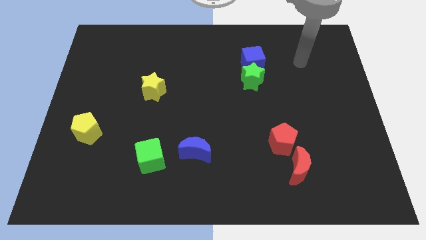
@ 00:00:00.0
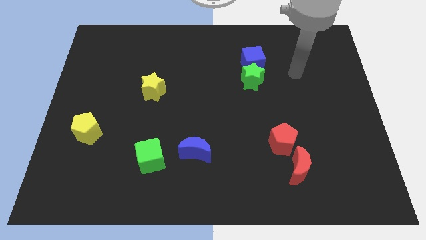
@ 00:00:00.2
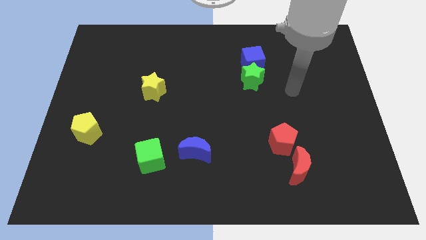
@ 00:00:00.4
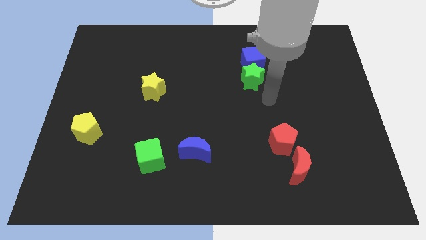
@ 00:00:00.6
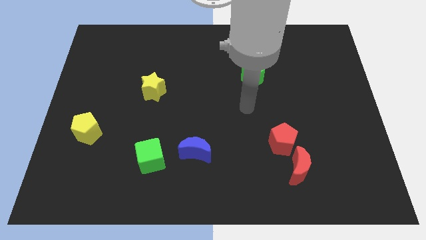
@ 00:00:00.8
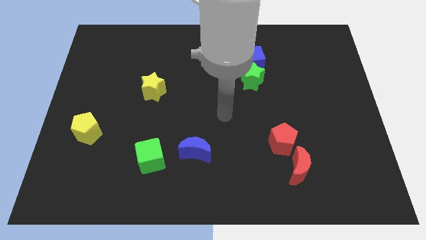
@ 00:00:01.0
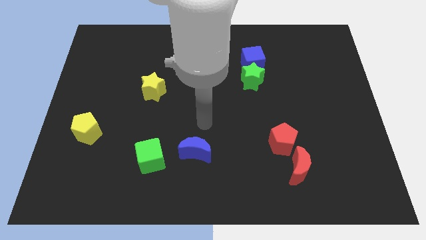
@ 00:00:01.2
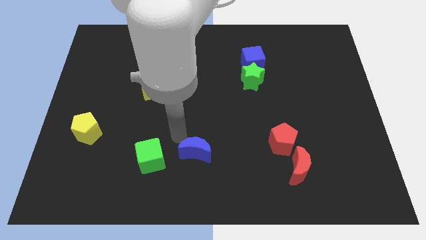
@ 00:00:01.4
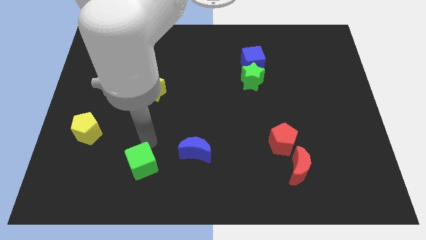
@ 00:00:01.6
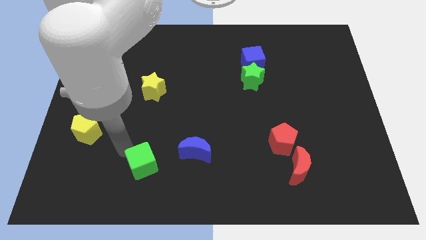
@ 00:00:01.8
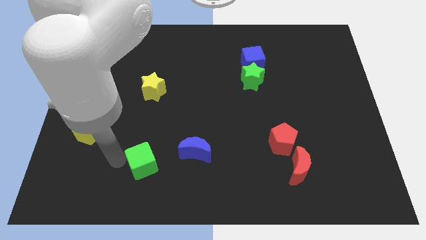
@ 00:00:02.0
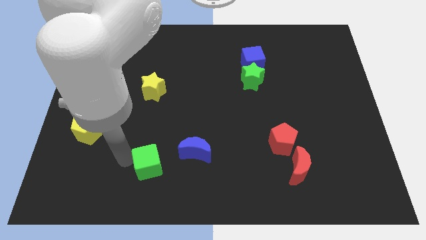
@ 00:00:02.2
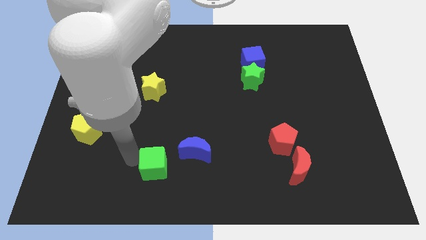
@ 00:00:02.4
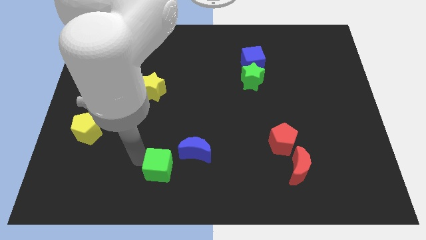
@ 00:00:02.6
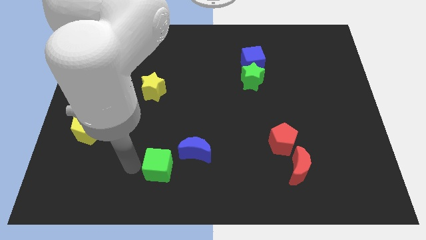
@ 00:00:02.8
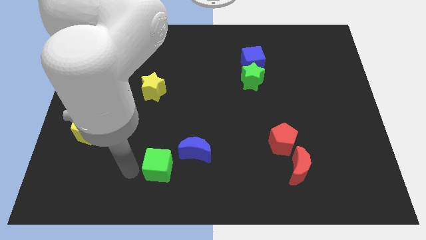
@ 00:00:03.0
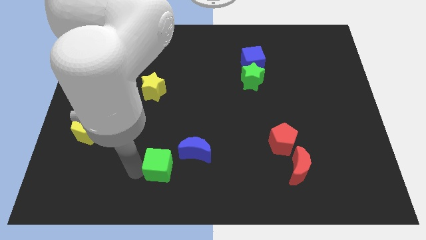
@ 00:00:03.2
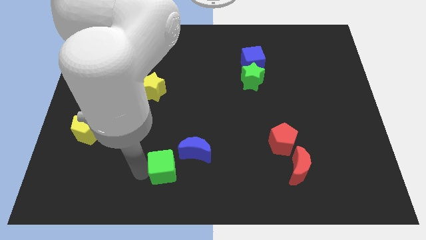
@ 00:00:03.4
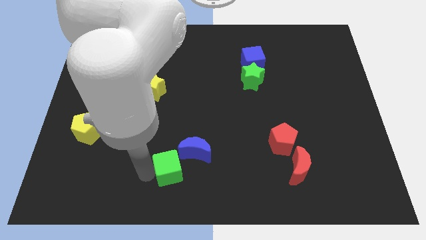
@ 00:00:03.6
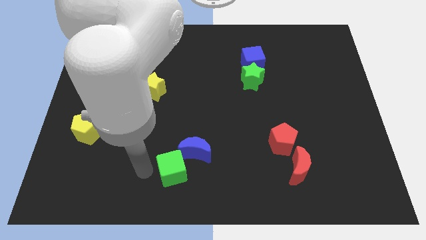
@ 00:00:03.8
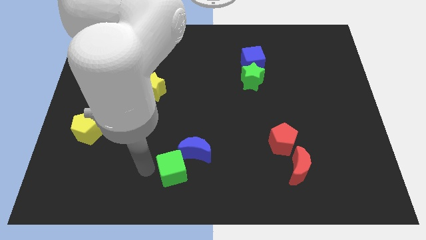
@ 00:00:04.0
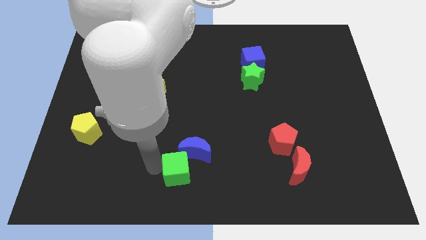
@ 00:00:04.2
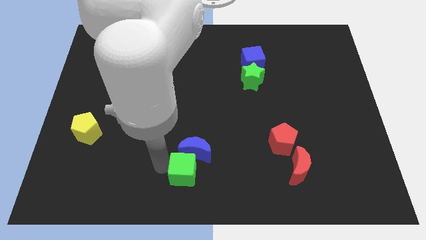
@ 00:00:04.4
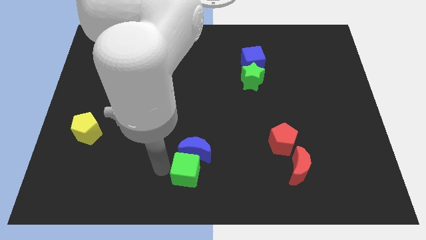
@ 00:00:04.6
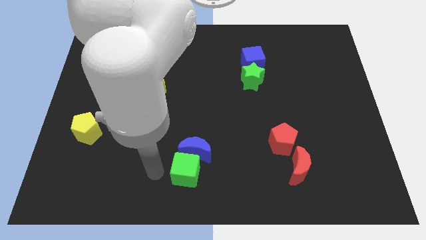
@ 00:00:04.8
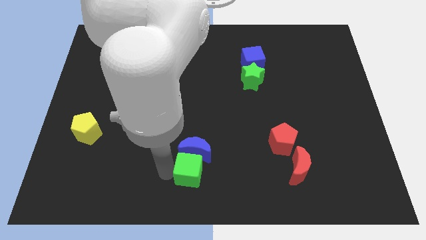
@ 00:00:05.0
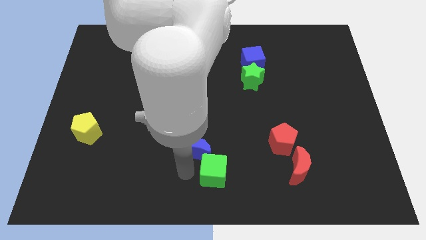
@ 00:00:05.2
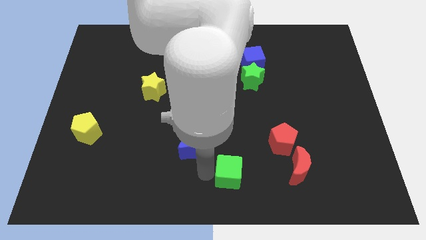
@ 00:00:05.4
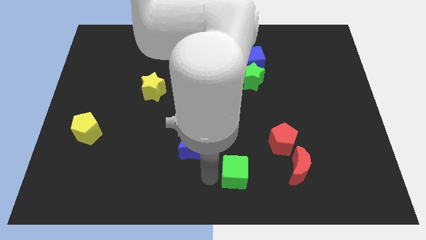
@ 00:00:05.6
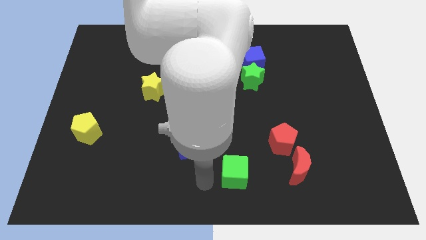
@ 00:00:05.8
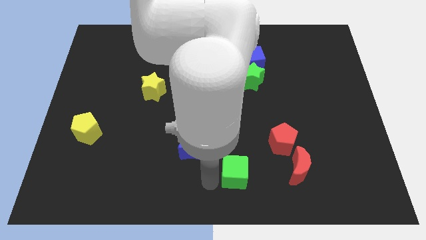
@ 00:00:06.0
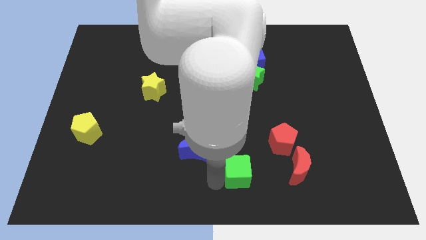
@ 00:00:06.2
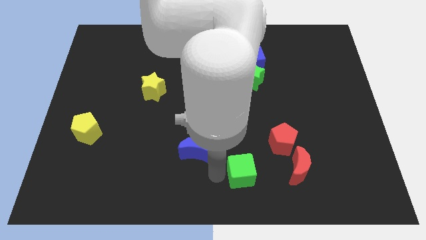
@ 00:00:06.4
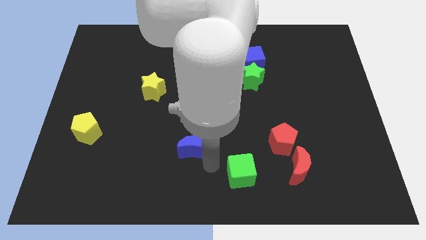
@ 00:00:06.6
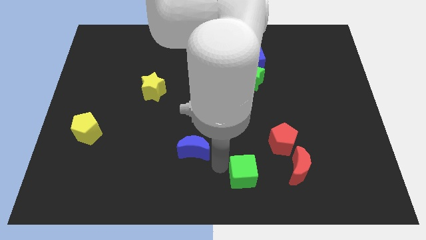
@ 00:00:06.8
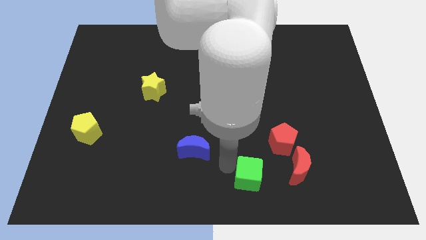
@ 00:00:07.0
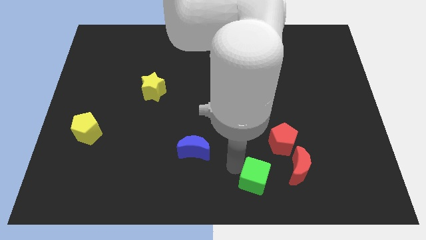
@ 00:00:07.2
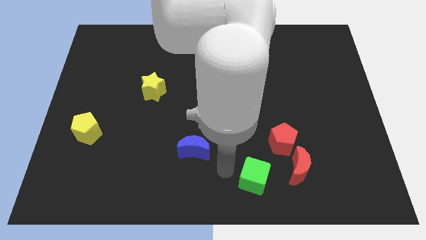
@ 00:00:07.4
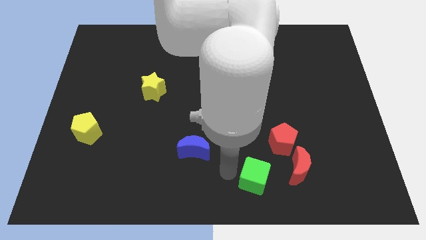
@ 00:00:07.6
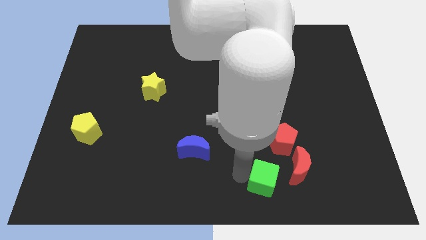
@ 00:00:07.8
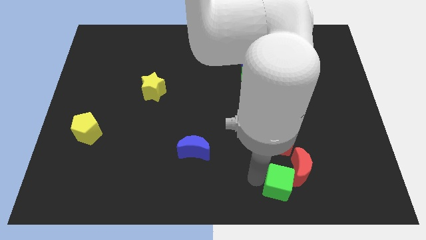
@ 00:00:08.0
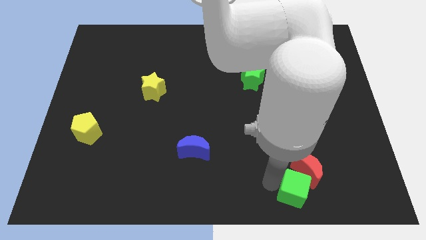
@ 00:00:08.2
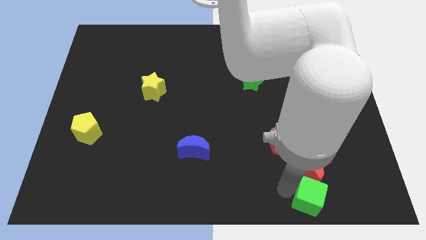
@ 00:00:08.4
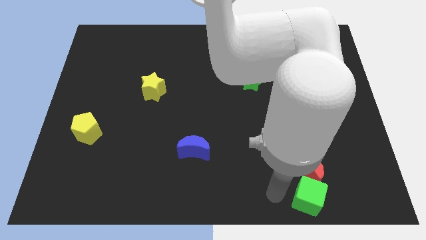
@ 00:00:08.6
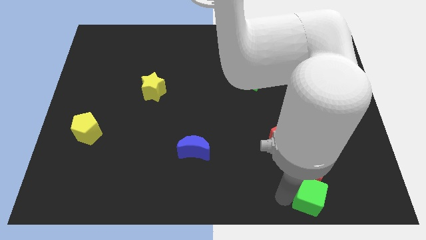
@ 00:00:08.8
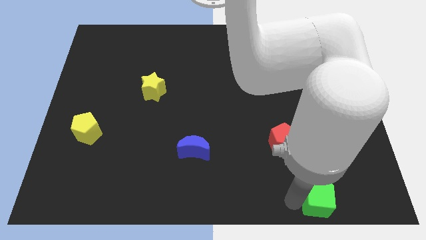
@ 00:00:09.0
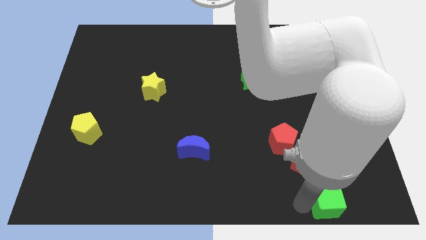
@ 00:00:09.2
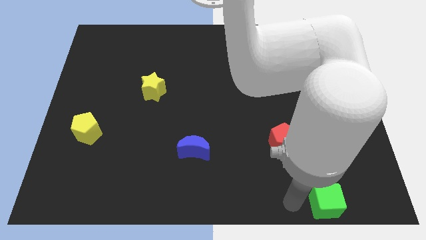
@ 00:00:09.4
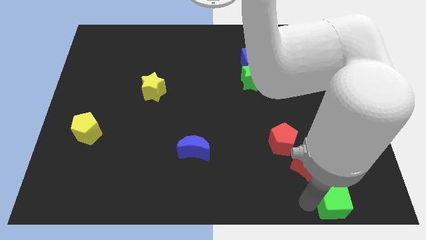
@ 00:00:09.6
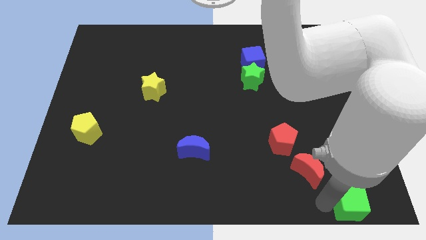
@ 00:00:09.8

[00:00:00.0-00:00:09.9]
put the green cube to the bottom right

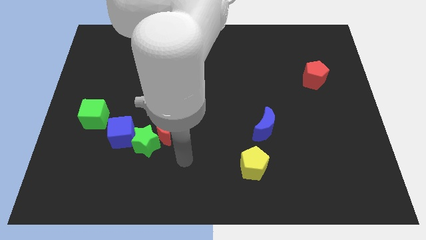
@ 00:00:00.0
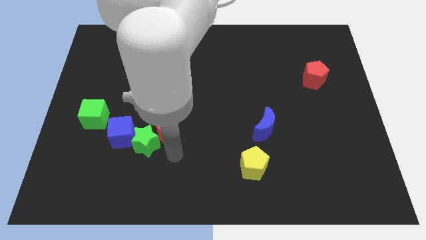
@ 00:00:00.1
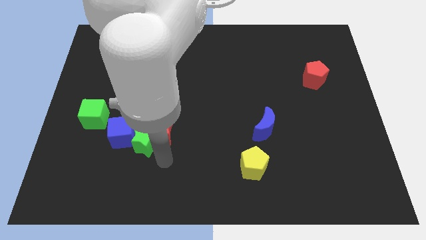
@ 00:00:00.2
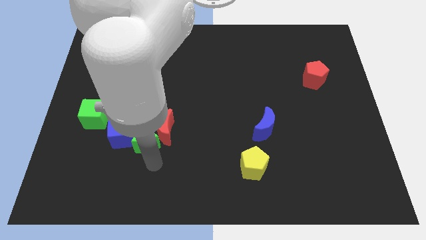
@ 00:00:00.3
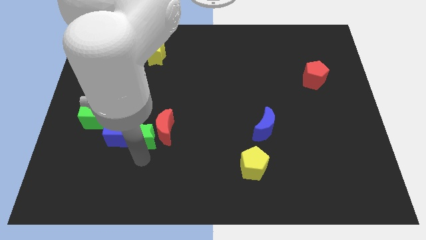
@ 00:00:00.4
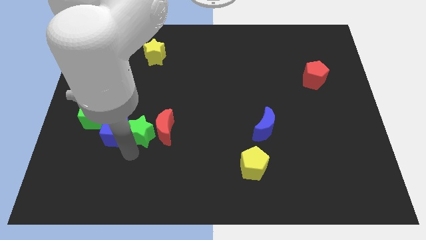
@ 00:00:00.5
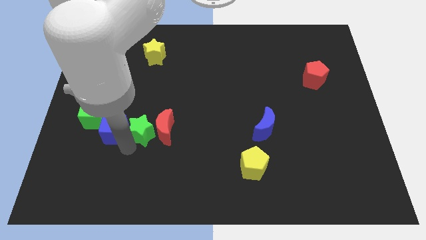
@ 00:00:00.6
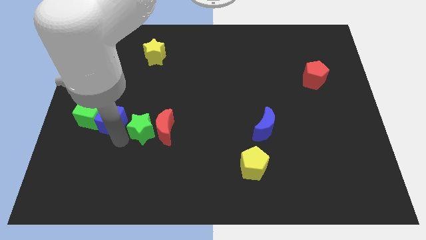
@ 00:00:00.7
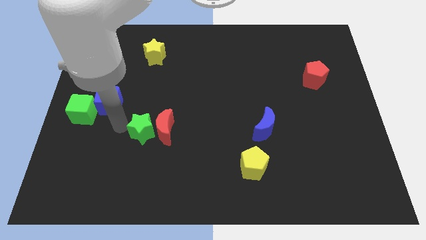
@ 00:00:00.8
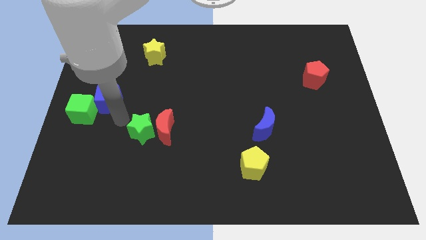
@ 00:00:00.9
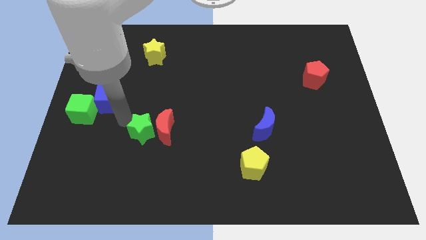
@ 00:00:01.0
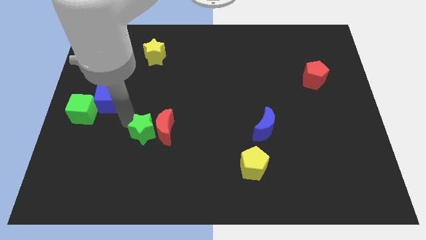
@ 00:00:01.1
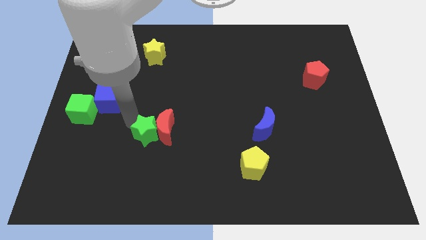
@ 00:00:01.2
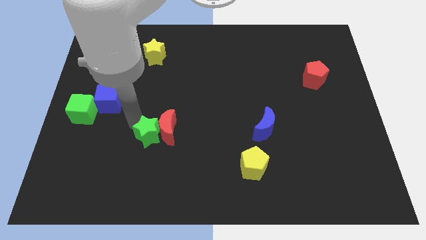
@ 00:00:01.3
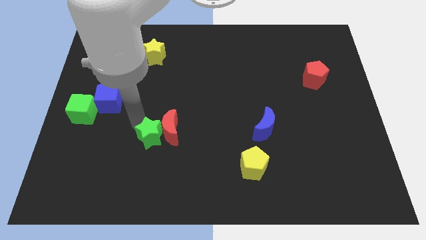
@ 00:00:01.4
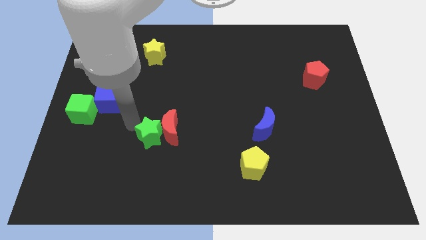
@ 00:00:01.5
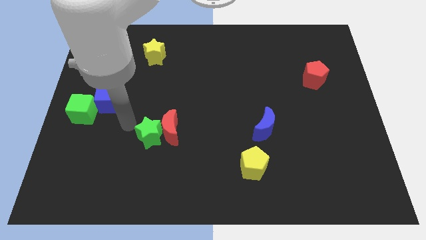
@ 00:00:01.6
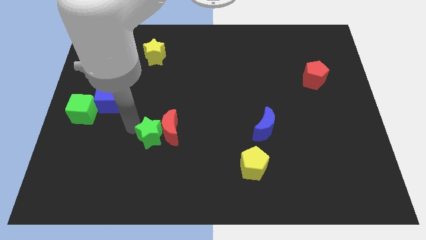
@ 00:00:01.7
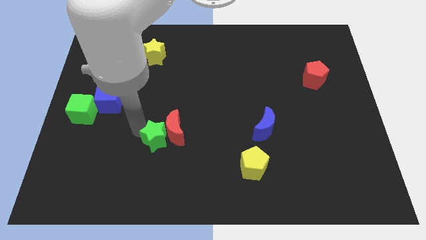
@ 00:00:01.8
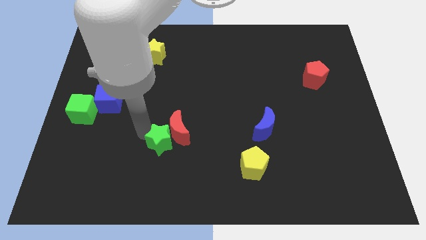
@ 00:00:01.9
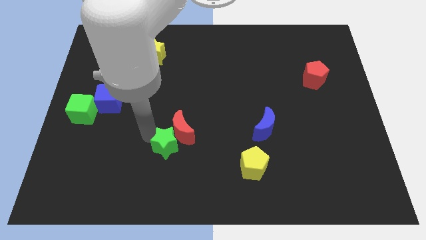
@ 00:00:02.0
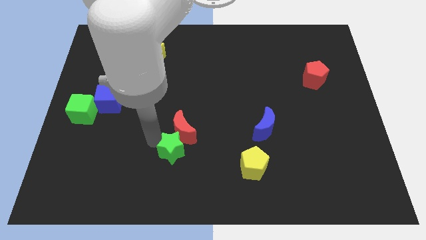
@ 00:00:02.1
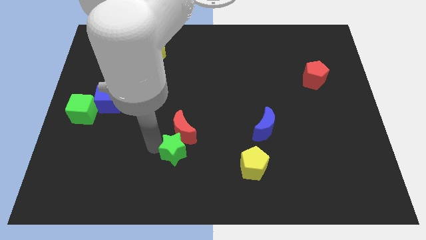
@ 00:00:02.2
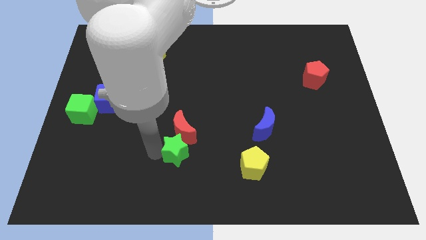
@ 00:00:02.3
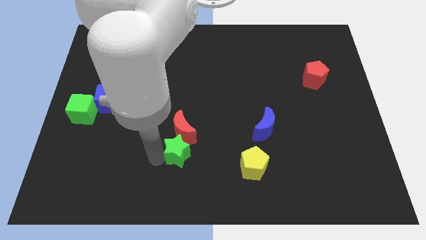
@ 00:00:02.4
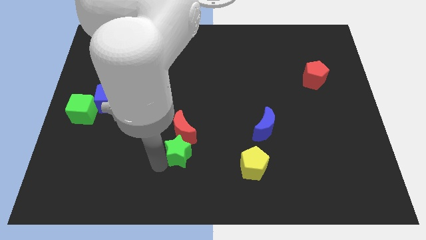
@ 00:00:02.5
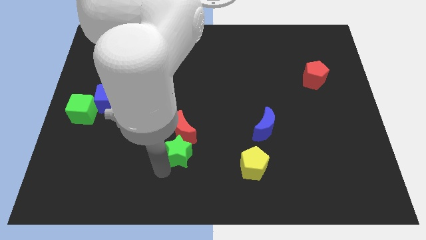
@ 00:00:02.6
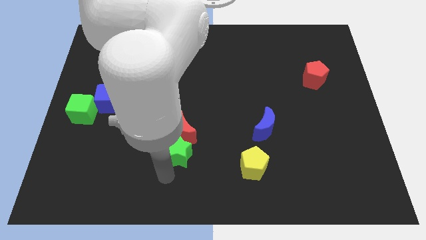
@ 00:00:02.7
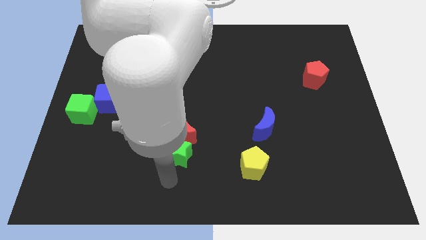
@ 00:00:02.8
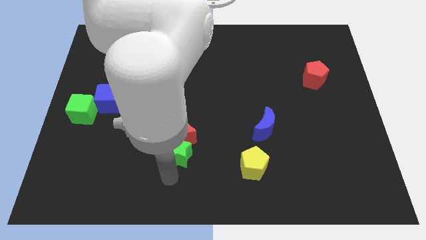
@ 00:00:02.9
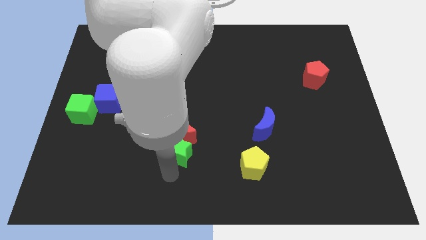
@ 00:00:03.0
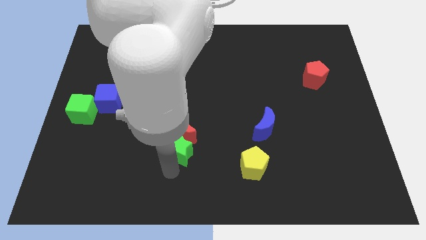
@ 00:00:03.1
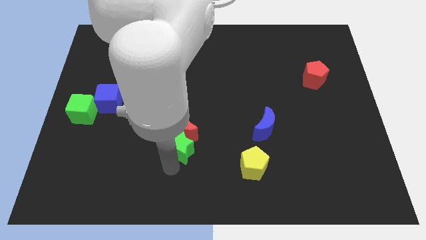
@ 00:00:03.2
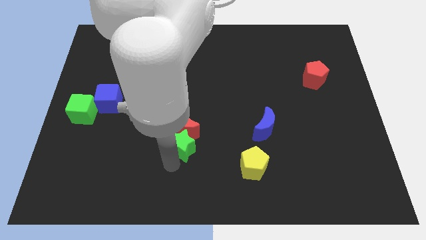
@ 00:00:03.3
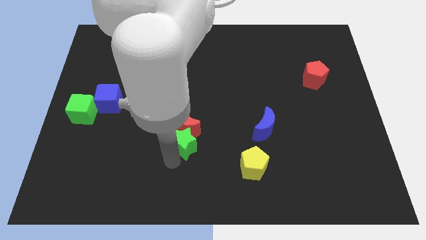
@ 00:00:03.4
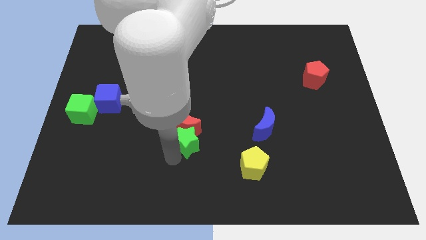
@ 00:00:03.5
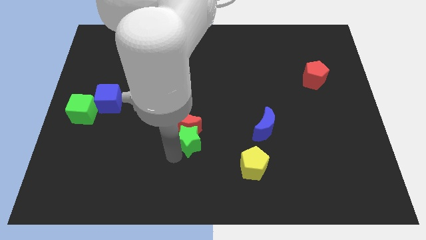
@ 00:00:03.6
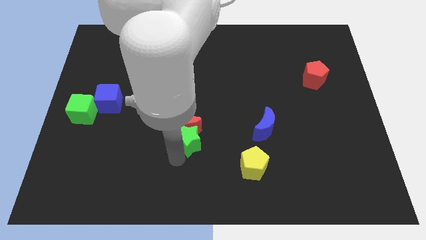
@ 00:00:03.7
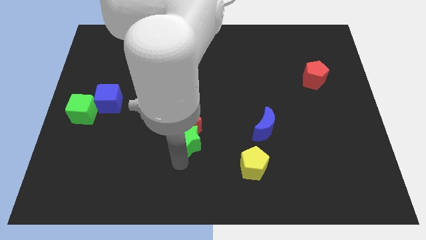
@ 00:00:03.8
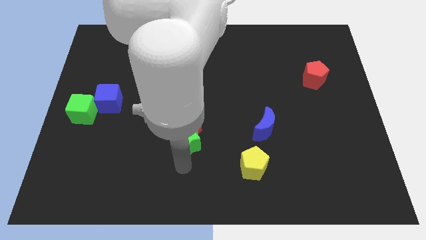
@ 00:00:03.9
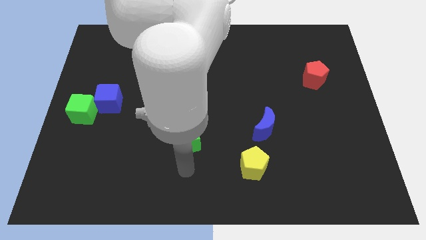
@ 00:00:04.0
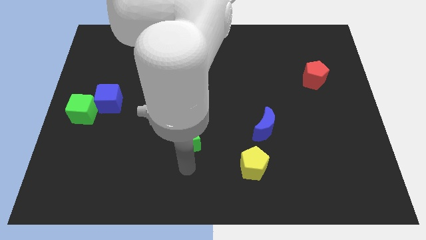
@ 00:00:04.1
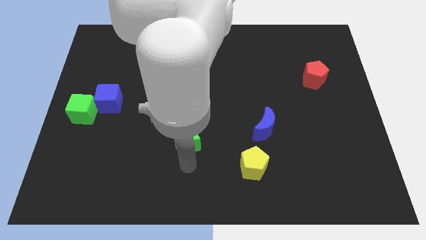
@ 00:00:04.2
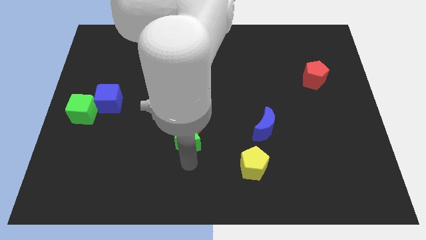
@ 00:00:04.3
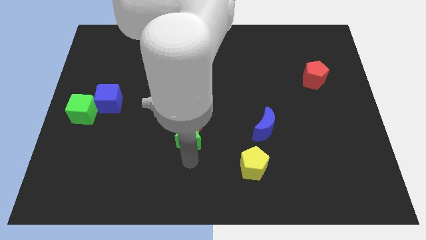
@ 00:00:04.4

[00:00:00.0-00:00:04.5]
slide the green star to the middle of the board
